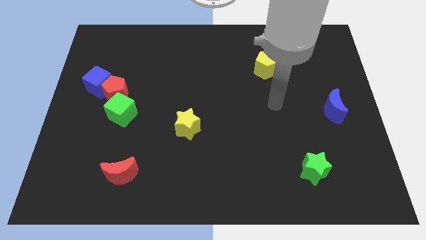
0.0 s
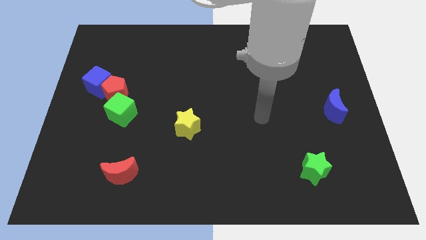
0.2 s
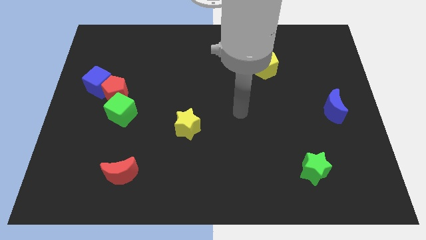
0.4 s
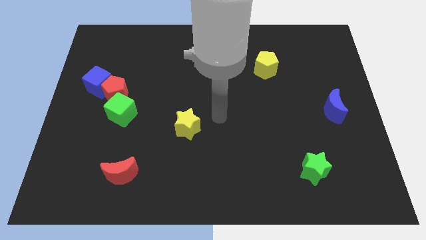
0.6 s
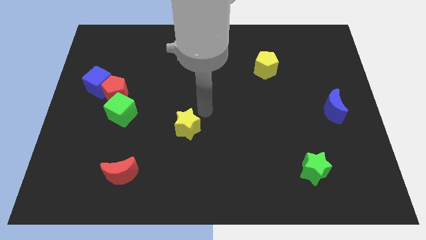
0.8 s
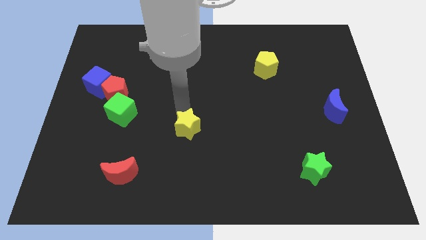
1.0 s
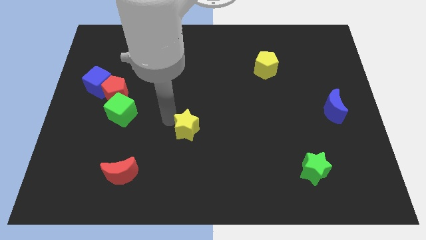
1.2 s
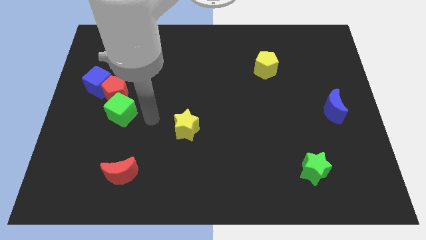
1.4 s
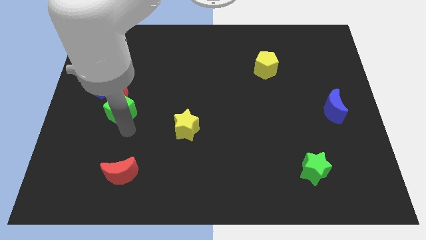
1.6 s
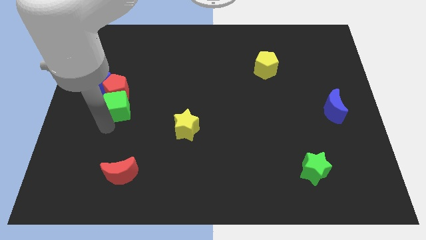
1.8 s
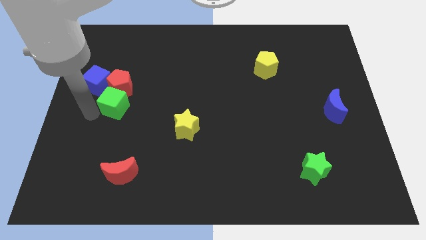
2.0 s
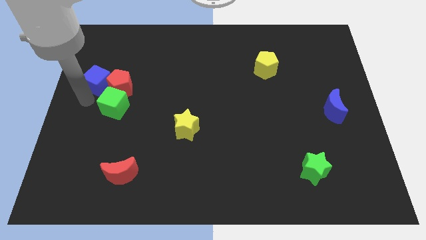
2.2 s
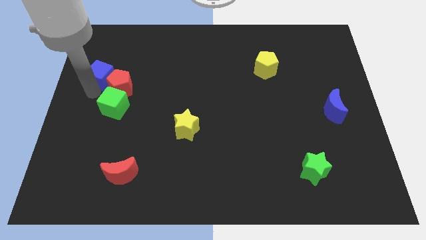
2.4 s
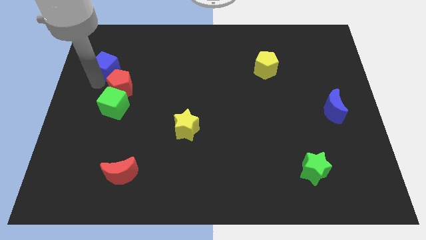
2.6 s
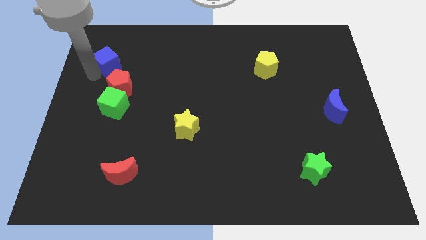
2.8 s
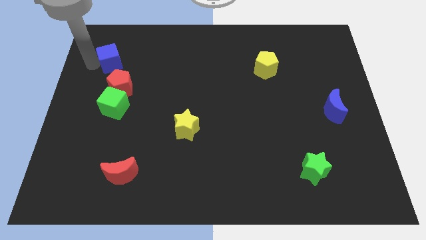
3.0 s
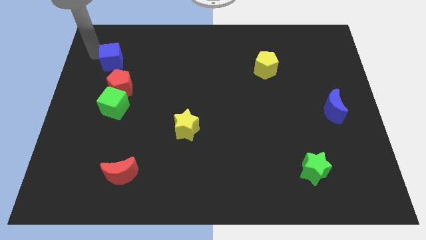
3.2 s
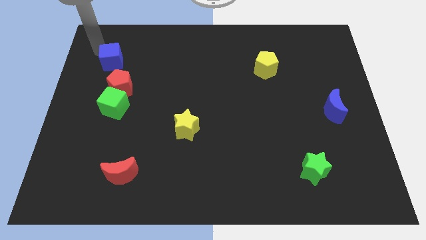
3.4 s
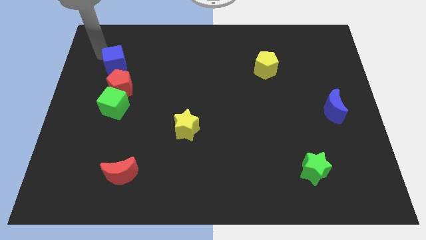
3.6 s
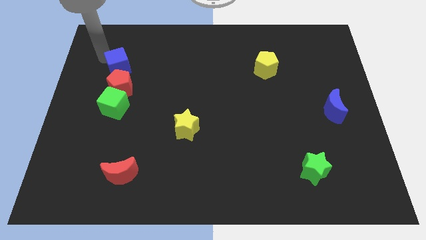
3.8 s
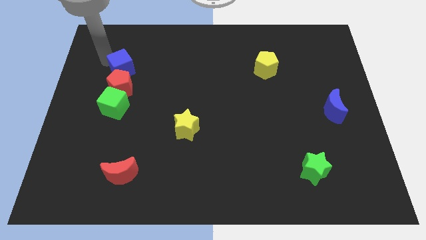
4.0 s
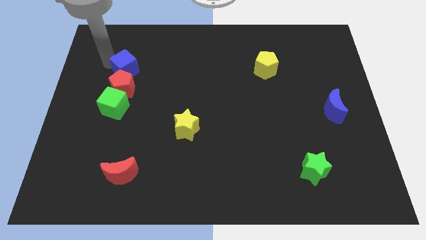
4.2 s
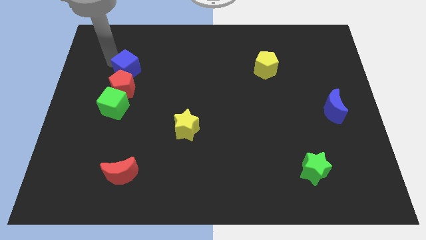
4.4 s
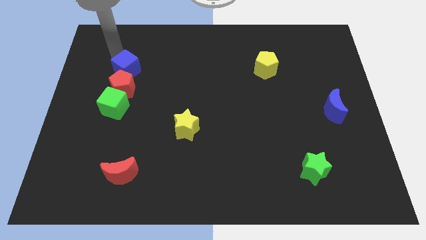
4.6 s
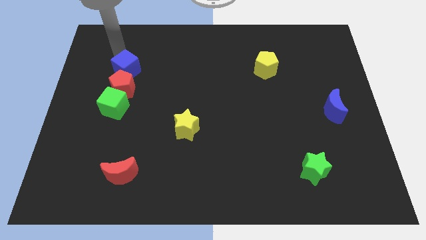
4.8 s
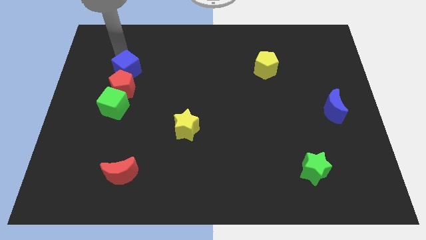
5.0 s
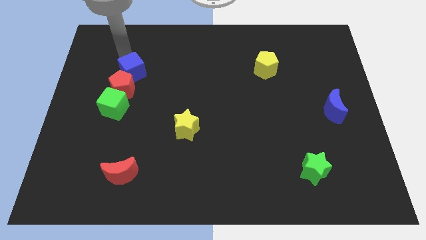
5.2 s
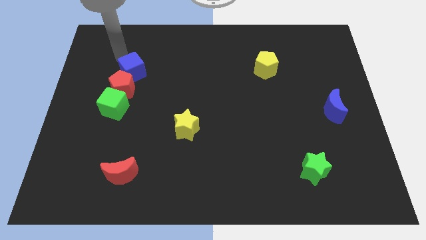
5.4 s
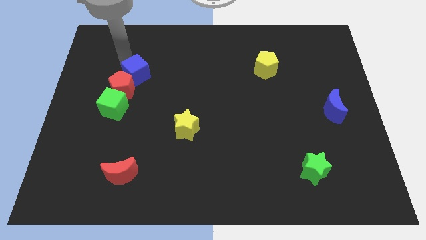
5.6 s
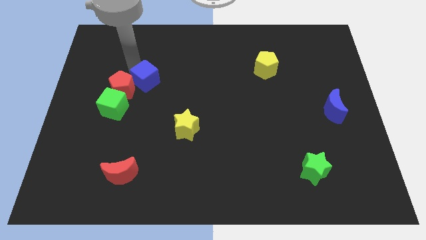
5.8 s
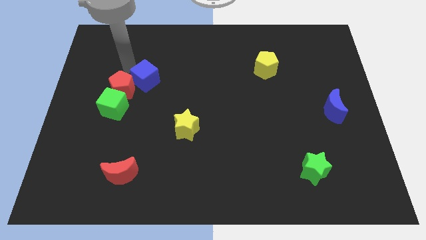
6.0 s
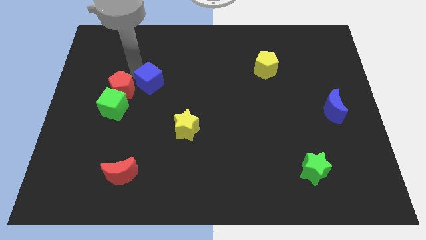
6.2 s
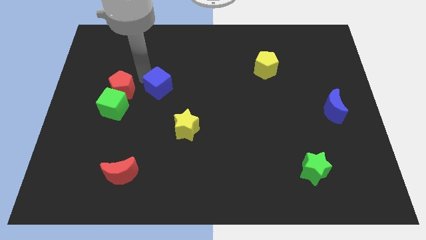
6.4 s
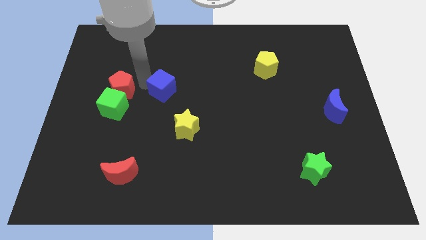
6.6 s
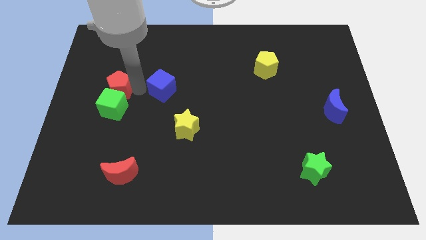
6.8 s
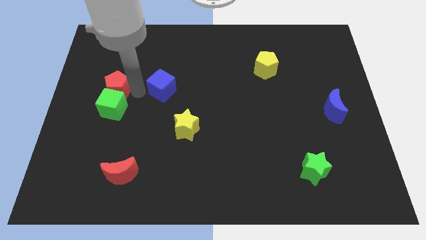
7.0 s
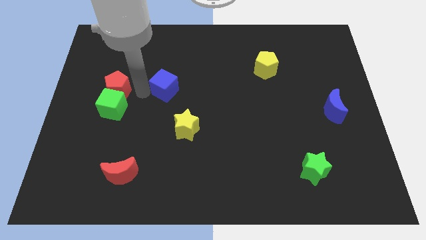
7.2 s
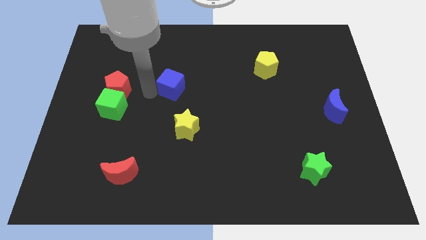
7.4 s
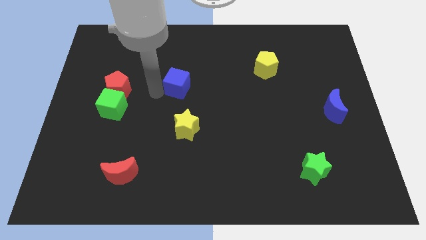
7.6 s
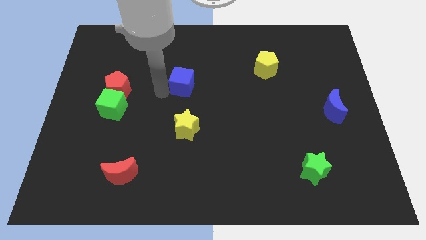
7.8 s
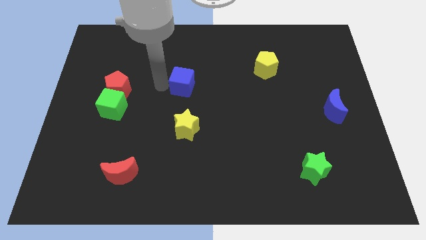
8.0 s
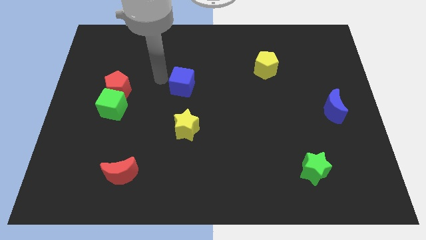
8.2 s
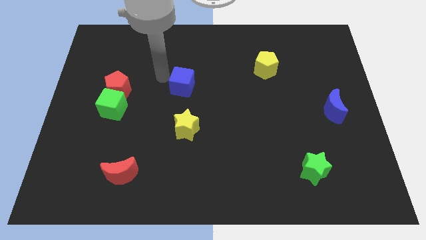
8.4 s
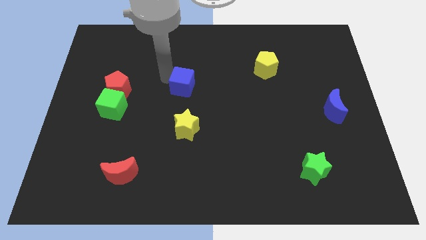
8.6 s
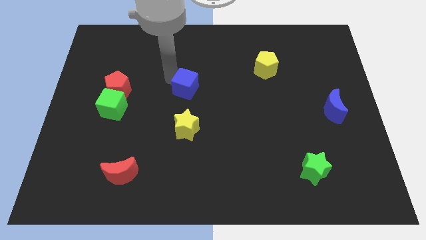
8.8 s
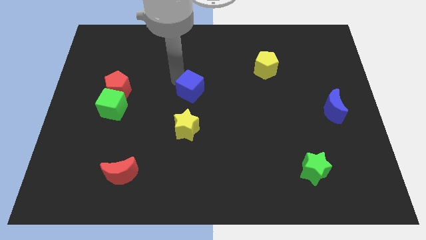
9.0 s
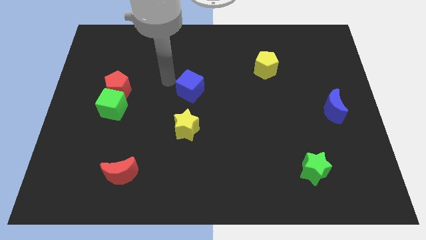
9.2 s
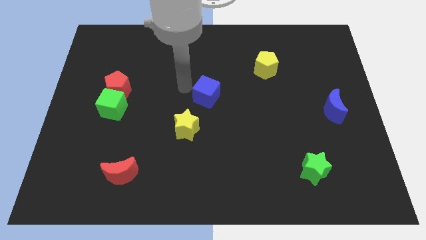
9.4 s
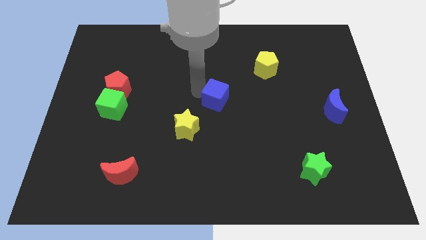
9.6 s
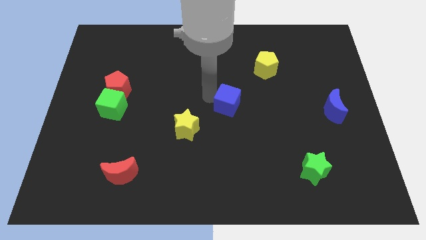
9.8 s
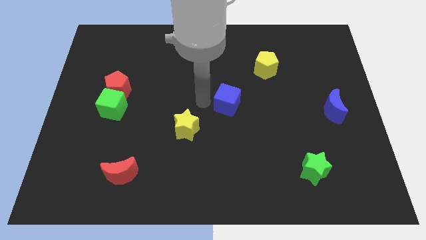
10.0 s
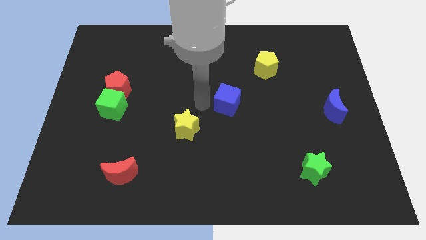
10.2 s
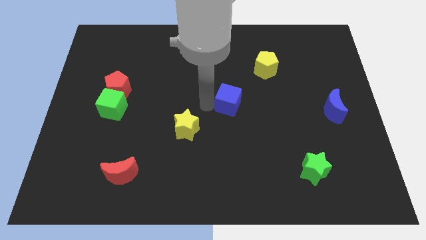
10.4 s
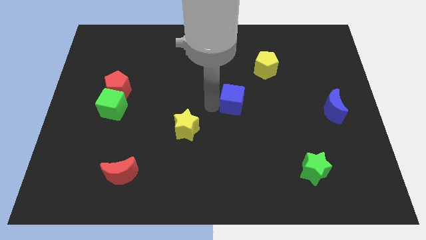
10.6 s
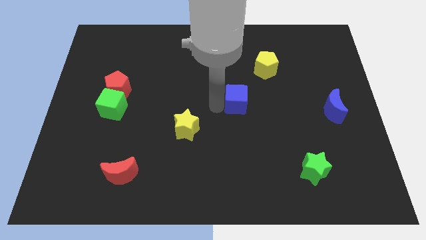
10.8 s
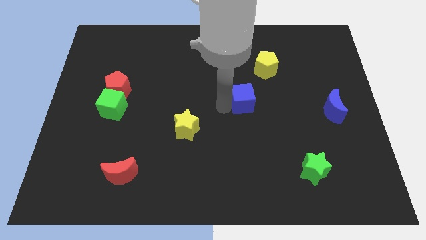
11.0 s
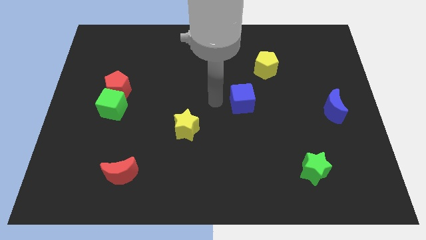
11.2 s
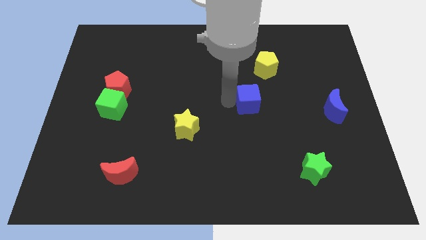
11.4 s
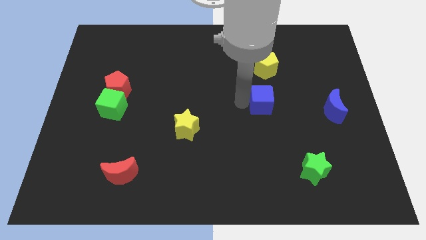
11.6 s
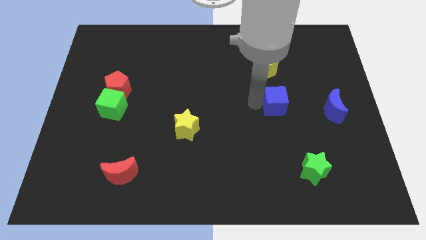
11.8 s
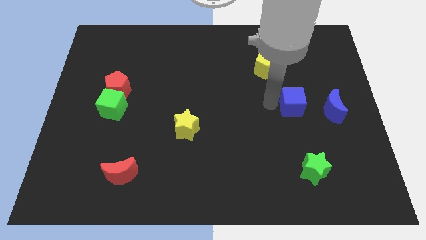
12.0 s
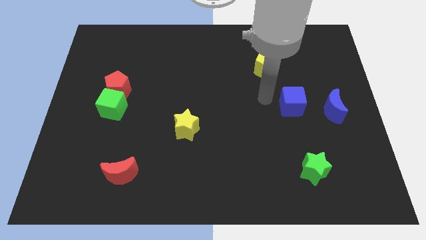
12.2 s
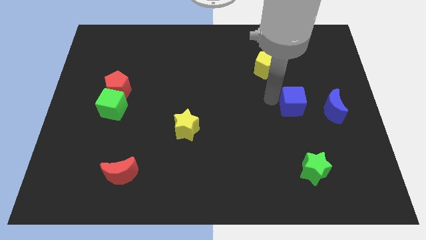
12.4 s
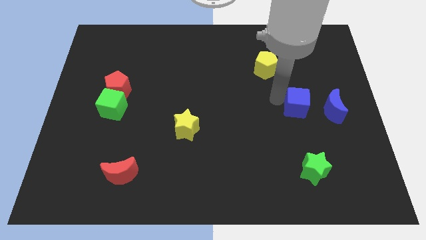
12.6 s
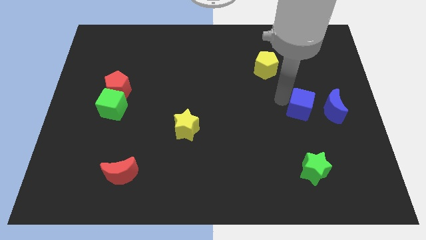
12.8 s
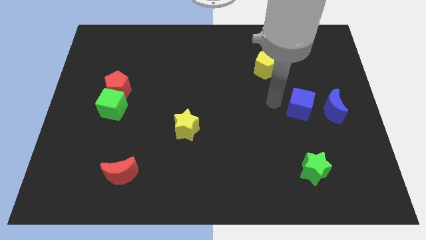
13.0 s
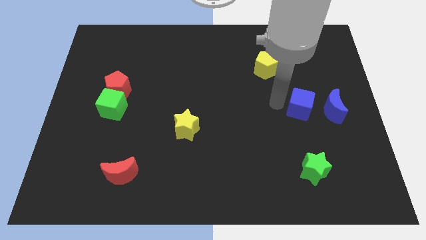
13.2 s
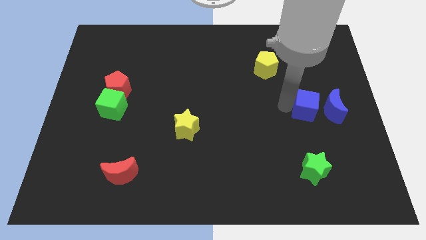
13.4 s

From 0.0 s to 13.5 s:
move the blue cube to the blue moon
